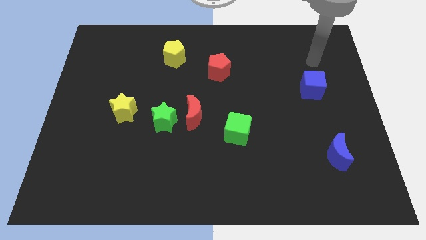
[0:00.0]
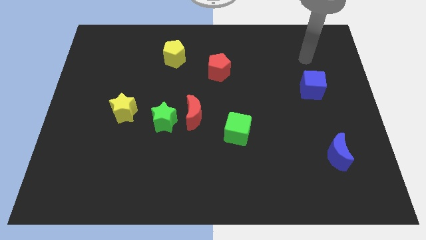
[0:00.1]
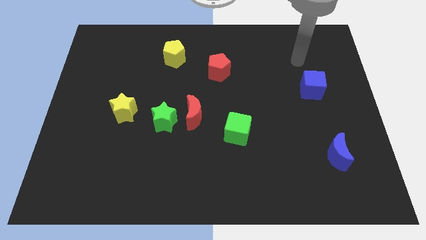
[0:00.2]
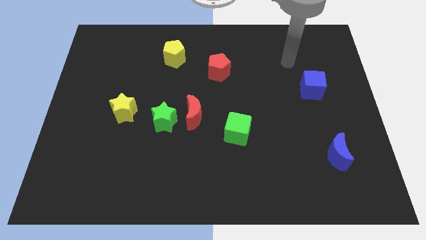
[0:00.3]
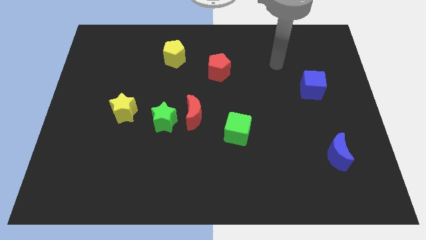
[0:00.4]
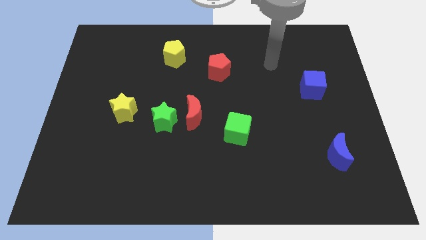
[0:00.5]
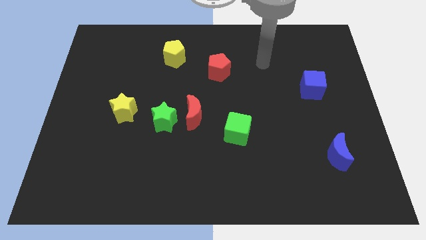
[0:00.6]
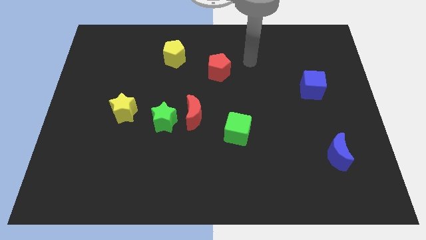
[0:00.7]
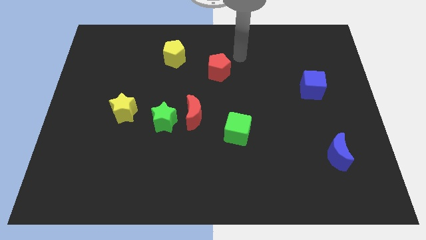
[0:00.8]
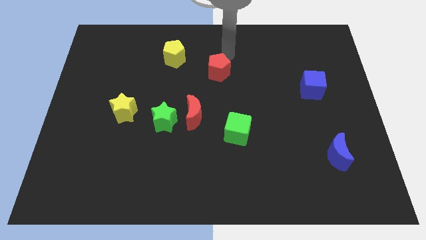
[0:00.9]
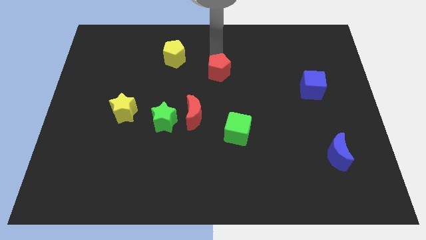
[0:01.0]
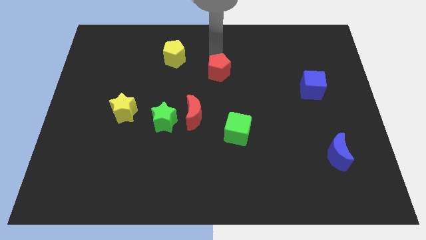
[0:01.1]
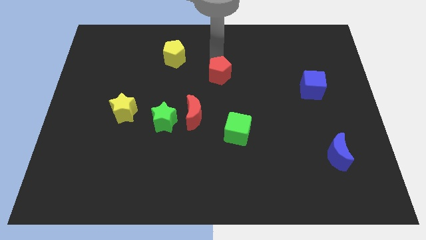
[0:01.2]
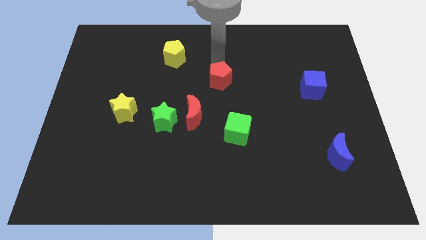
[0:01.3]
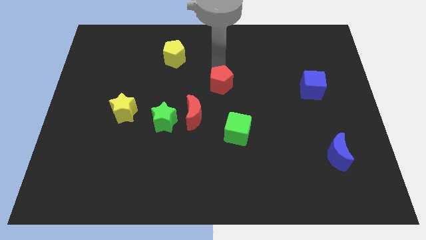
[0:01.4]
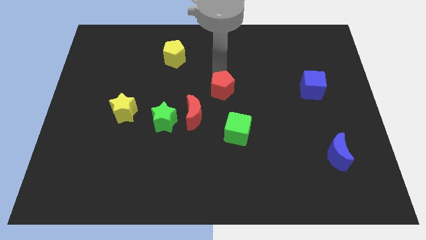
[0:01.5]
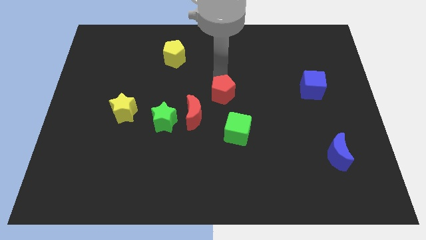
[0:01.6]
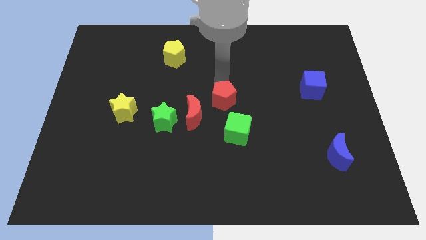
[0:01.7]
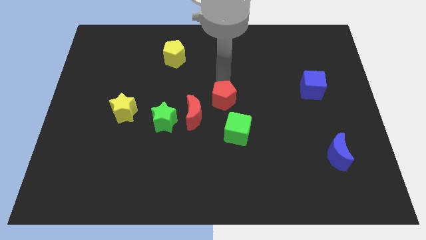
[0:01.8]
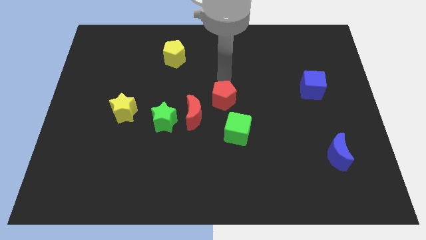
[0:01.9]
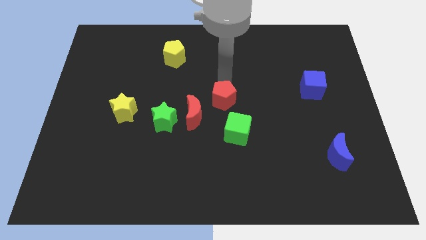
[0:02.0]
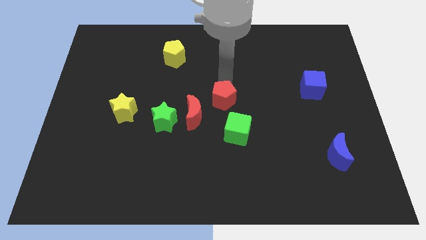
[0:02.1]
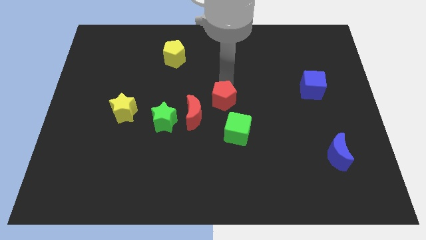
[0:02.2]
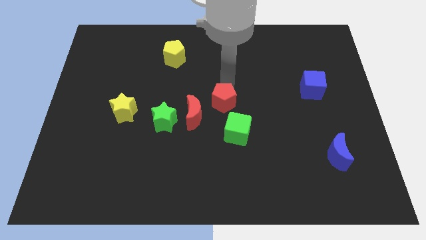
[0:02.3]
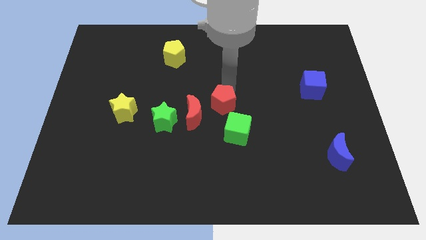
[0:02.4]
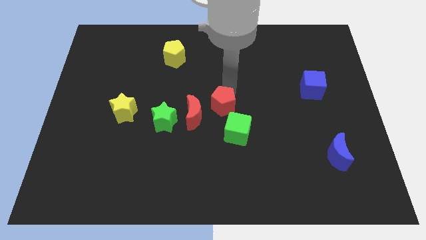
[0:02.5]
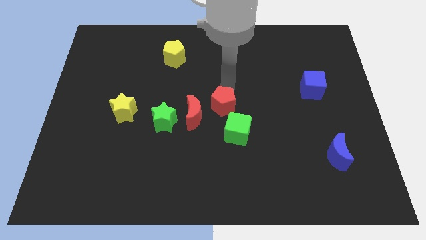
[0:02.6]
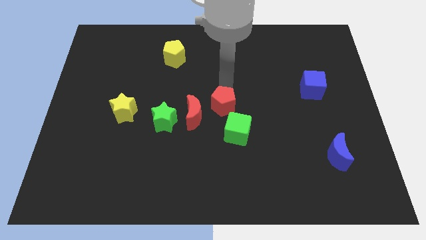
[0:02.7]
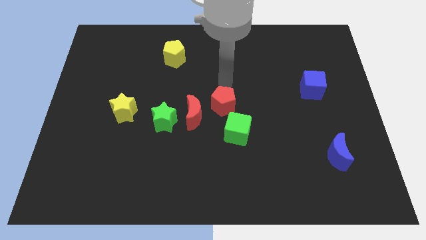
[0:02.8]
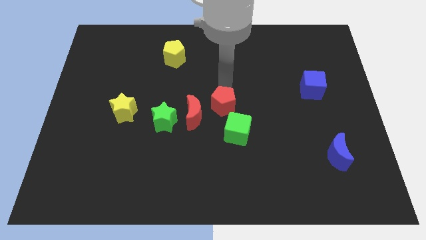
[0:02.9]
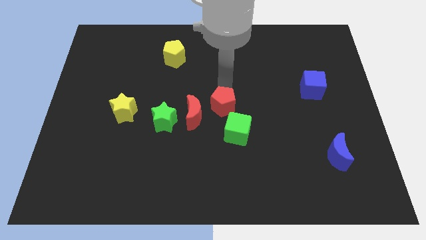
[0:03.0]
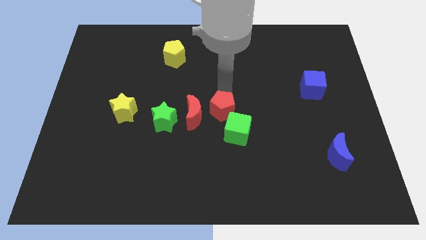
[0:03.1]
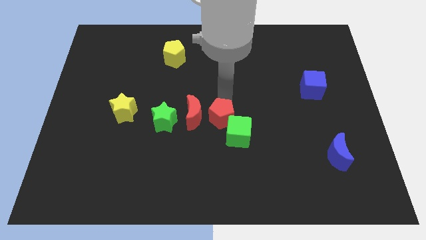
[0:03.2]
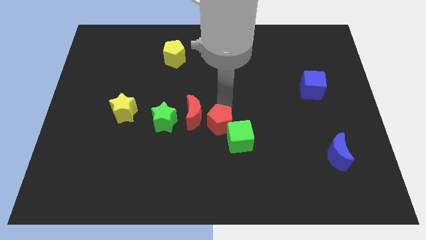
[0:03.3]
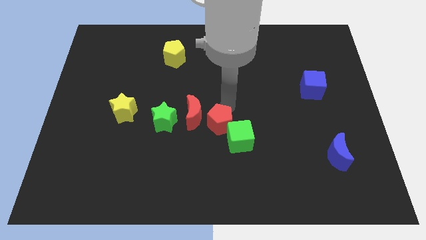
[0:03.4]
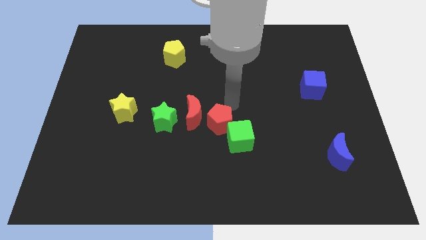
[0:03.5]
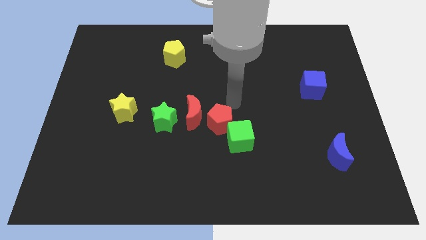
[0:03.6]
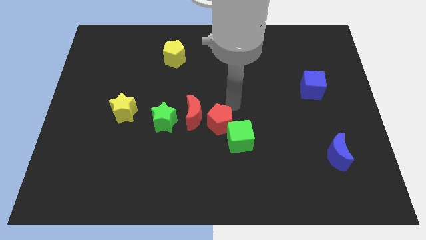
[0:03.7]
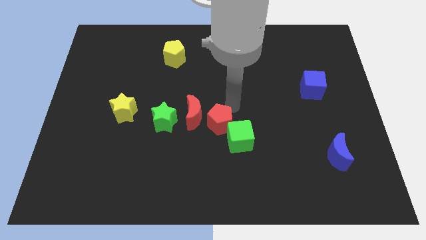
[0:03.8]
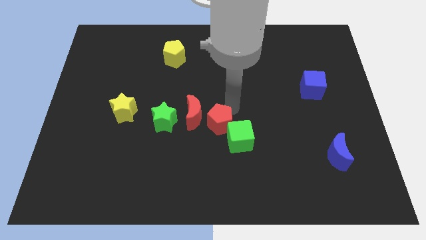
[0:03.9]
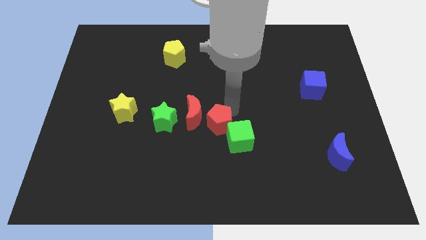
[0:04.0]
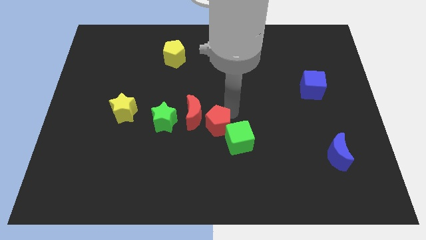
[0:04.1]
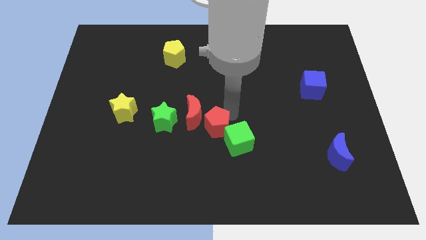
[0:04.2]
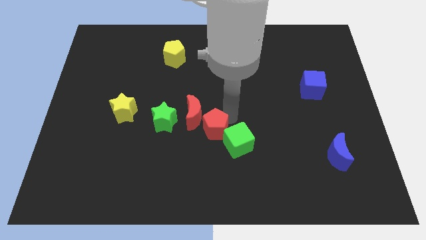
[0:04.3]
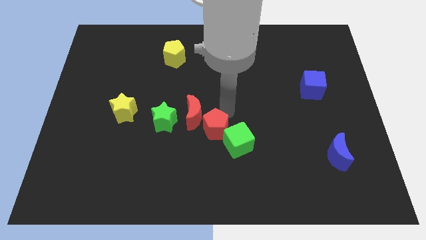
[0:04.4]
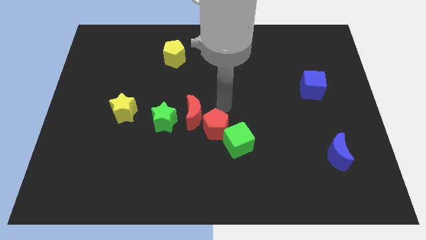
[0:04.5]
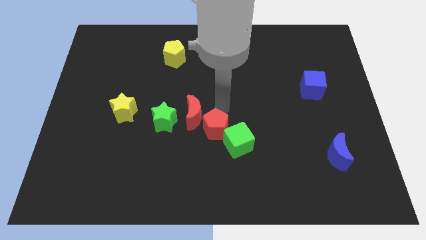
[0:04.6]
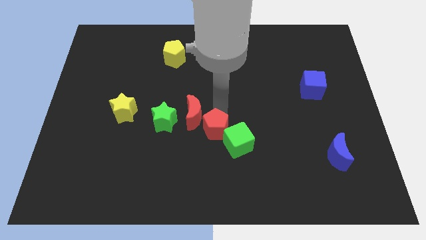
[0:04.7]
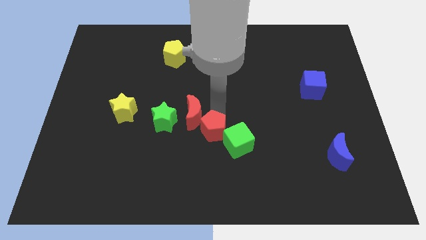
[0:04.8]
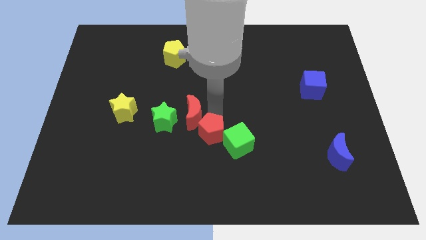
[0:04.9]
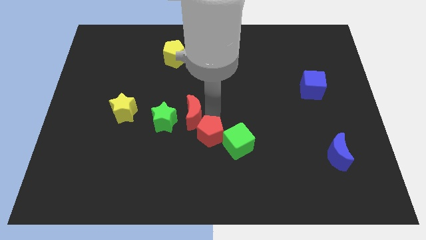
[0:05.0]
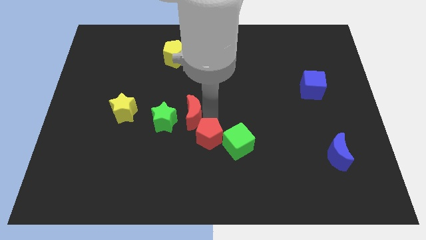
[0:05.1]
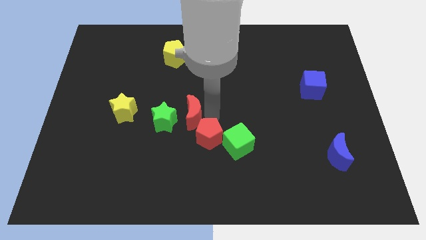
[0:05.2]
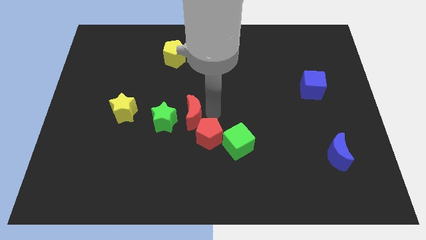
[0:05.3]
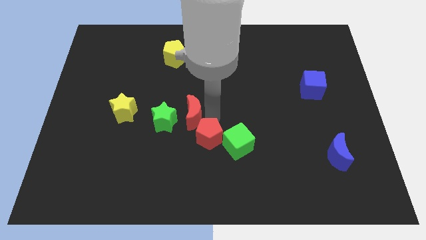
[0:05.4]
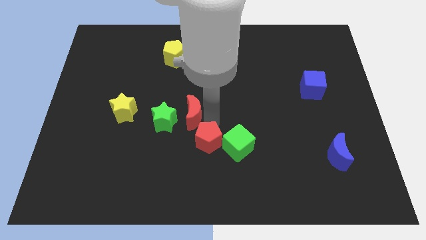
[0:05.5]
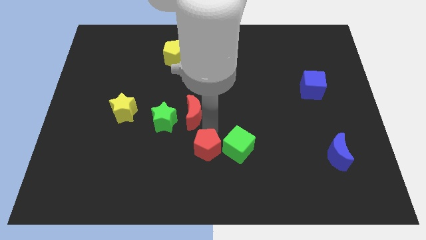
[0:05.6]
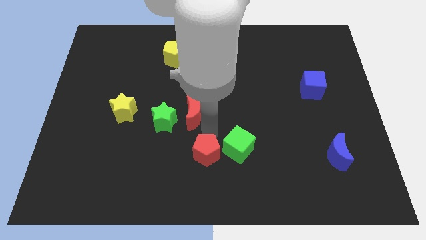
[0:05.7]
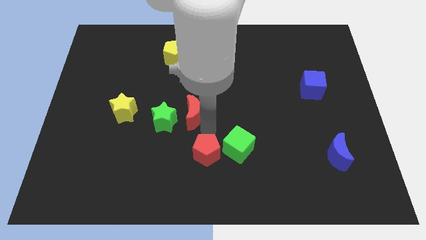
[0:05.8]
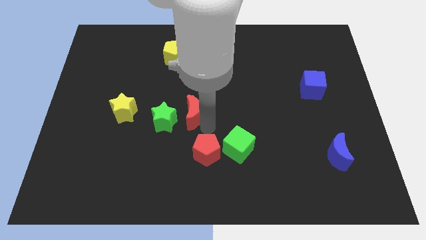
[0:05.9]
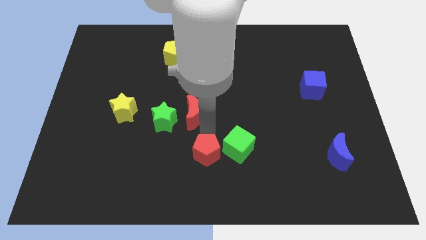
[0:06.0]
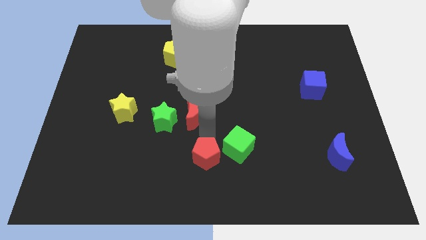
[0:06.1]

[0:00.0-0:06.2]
push the red pentagon to the bottom side
